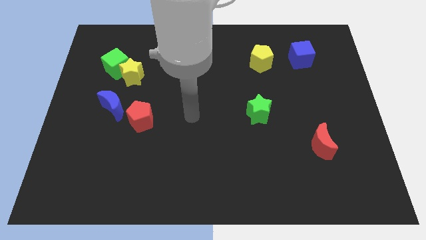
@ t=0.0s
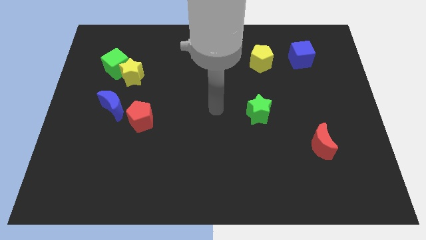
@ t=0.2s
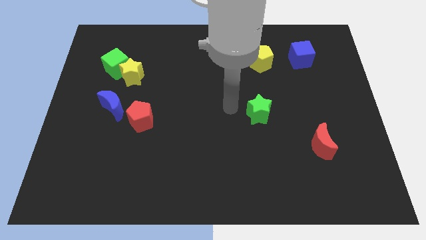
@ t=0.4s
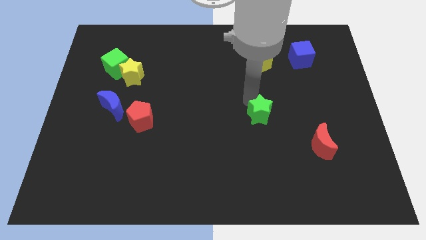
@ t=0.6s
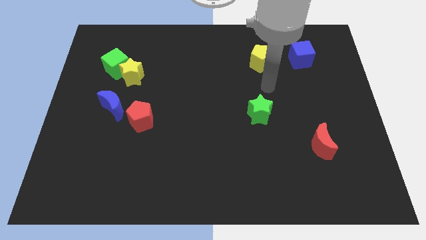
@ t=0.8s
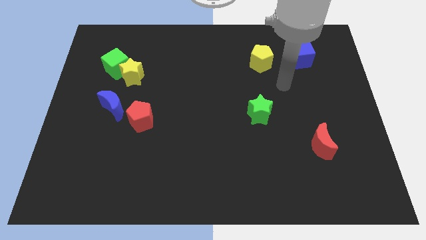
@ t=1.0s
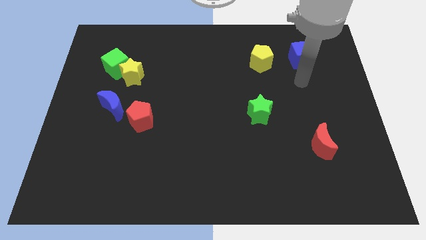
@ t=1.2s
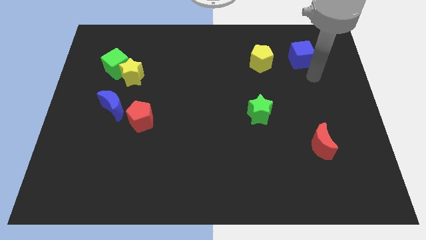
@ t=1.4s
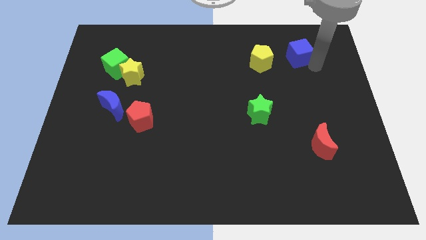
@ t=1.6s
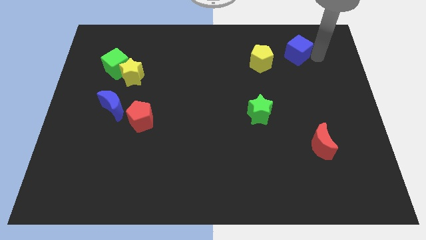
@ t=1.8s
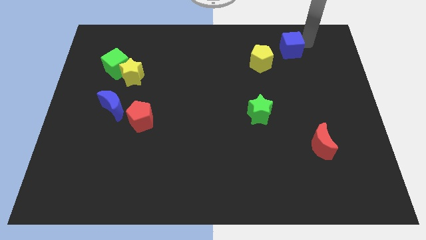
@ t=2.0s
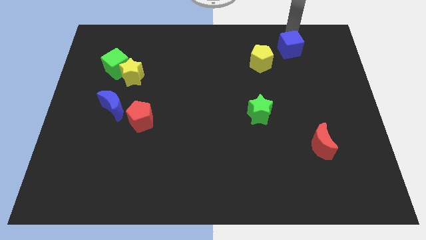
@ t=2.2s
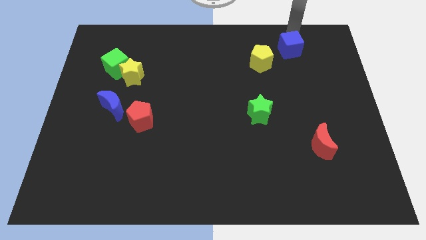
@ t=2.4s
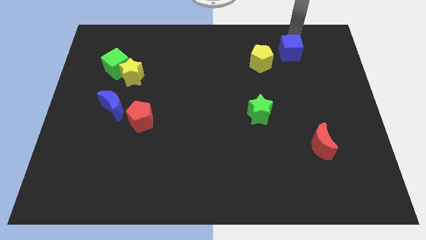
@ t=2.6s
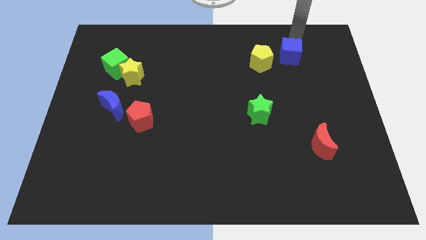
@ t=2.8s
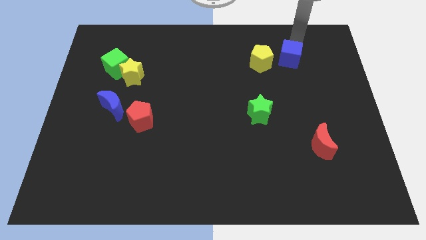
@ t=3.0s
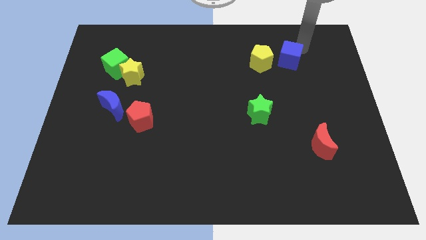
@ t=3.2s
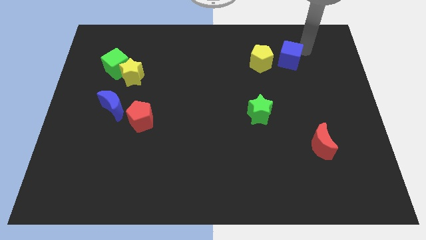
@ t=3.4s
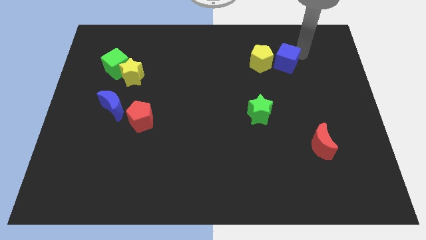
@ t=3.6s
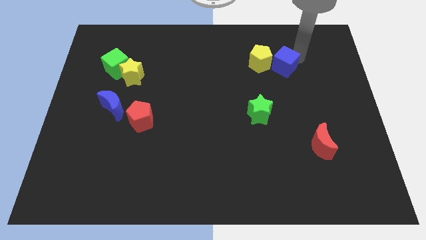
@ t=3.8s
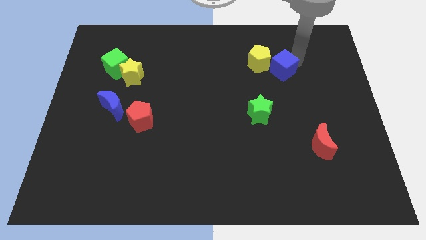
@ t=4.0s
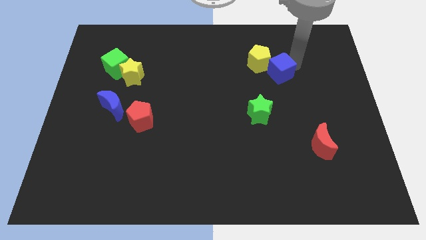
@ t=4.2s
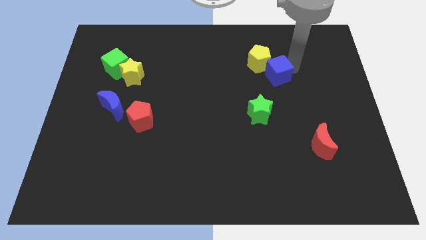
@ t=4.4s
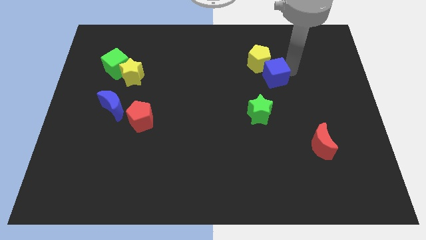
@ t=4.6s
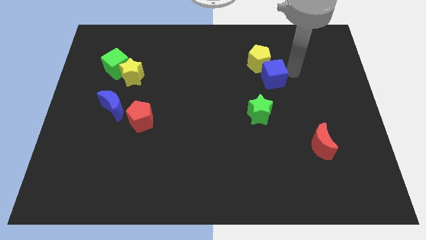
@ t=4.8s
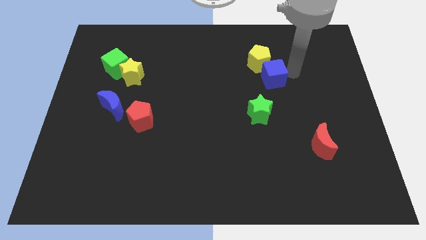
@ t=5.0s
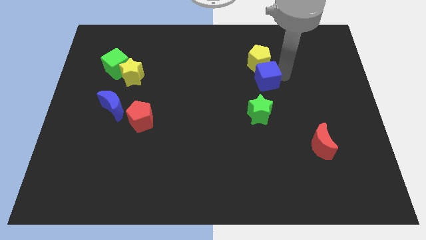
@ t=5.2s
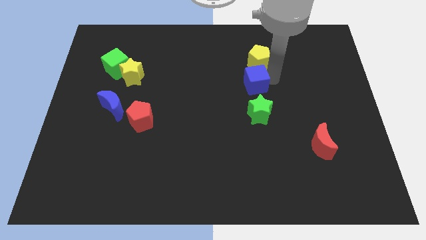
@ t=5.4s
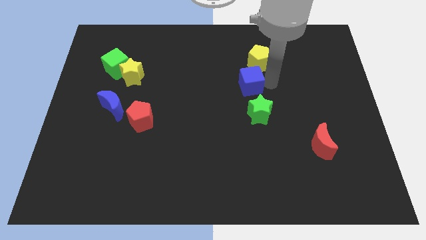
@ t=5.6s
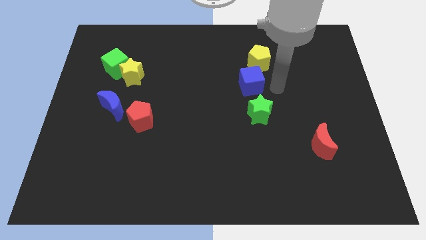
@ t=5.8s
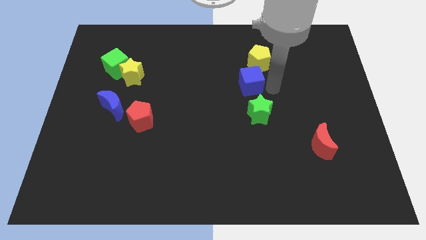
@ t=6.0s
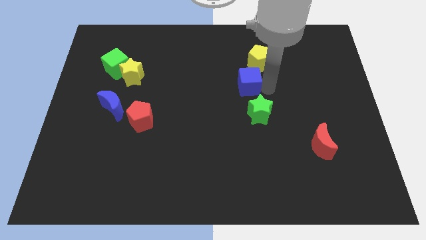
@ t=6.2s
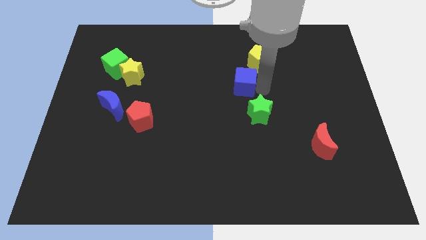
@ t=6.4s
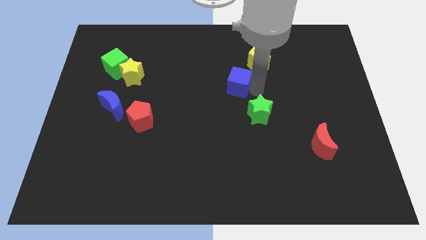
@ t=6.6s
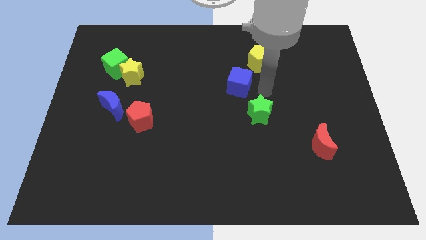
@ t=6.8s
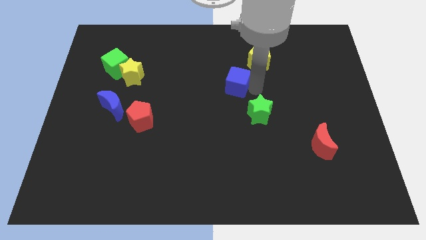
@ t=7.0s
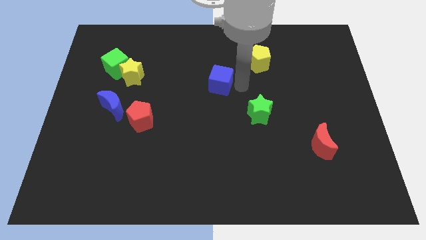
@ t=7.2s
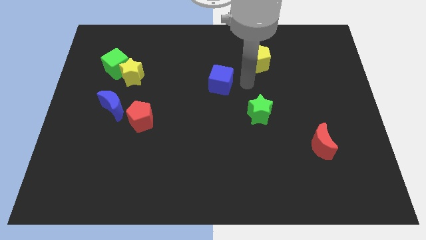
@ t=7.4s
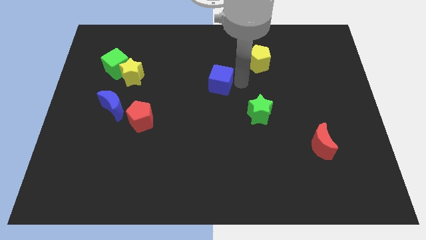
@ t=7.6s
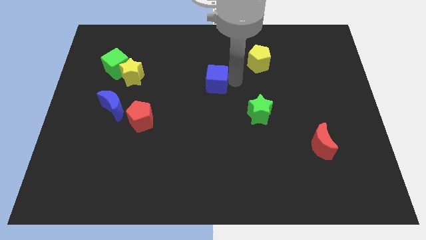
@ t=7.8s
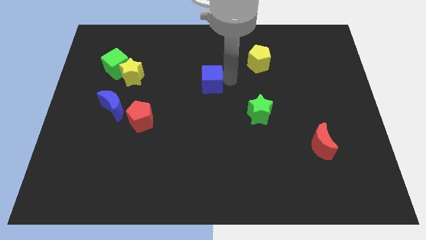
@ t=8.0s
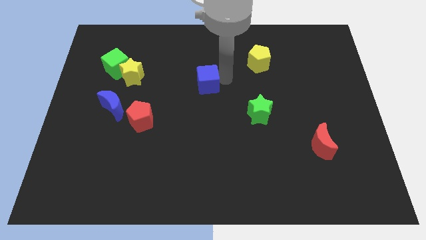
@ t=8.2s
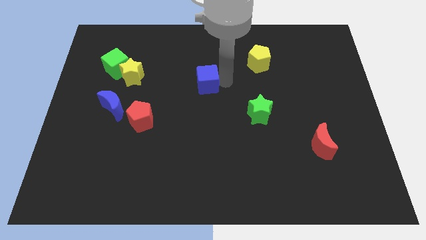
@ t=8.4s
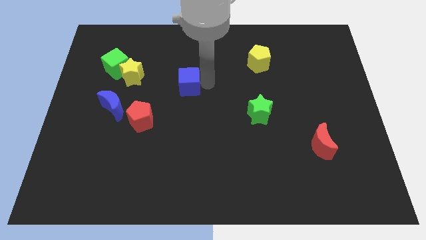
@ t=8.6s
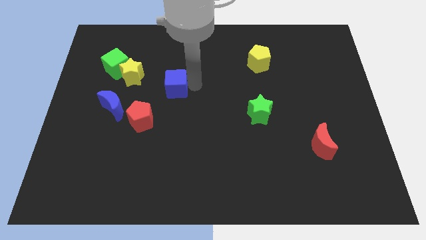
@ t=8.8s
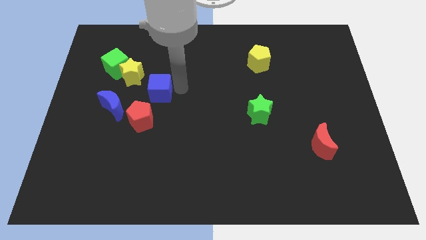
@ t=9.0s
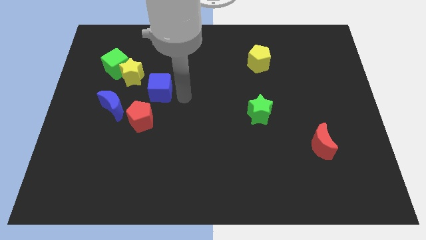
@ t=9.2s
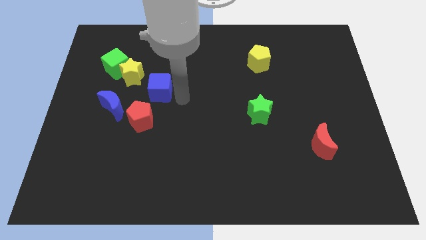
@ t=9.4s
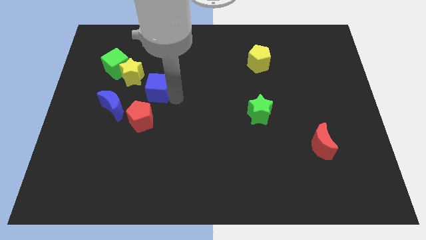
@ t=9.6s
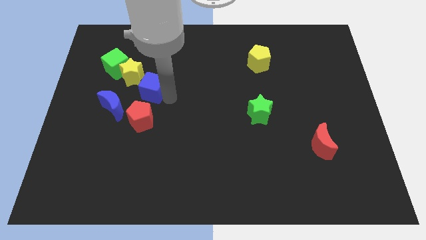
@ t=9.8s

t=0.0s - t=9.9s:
slide the blue cube diagonally down and to the right of the green cube

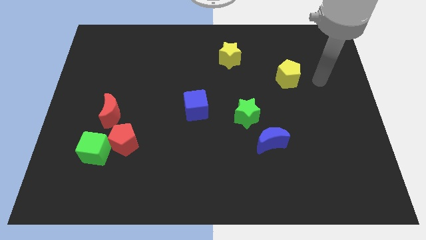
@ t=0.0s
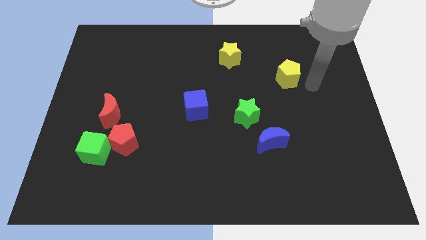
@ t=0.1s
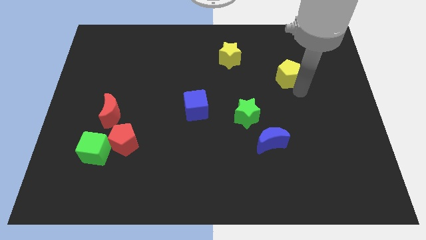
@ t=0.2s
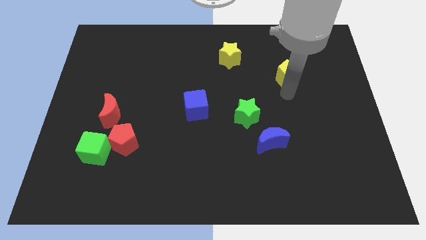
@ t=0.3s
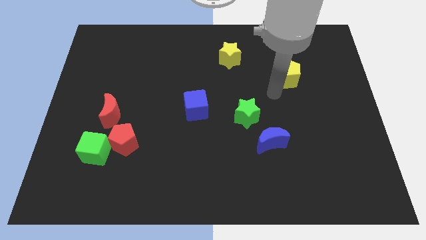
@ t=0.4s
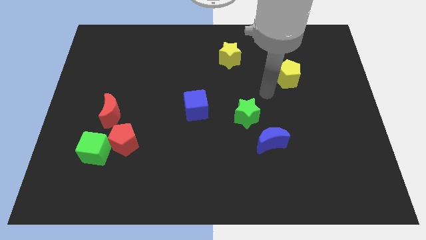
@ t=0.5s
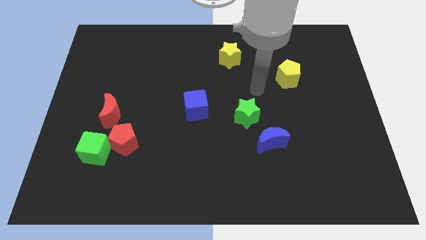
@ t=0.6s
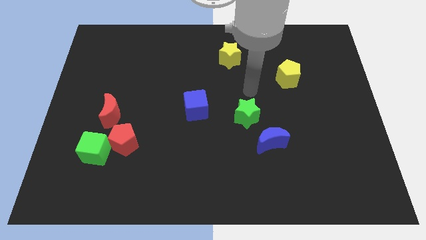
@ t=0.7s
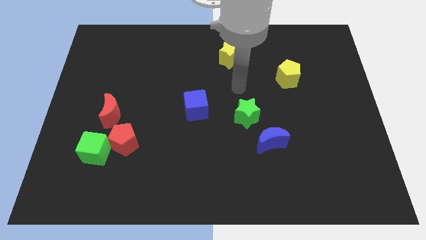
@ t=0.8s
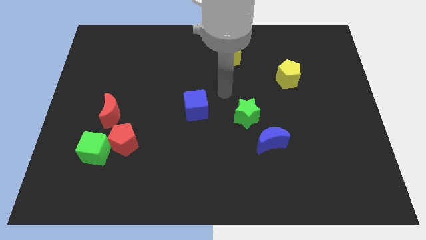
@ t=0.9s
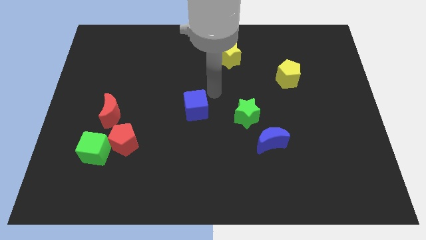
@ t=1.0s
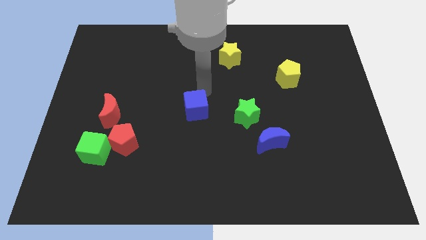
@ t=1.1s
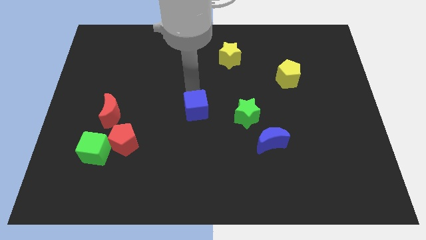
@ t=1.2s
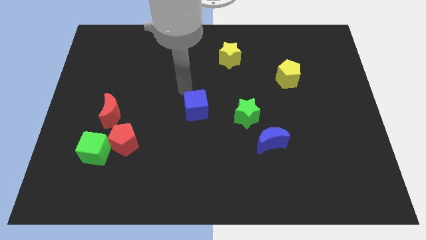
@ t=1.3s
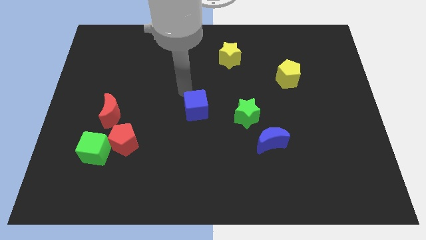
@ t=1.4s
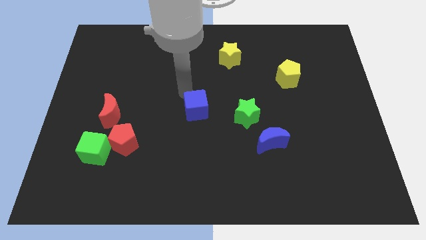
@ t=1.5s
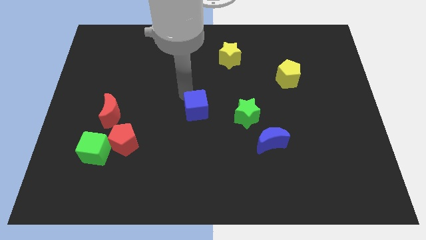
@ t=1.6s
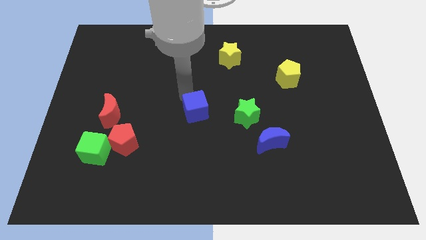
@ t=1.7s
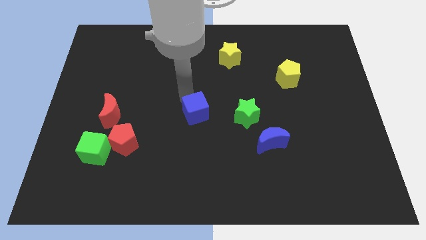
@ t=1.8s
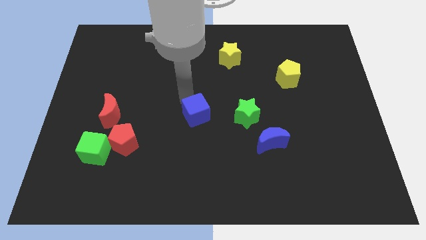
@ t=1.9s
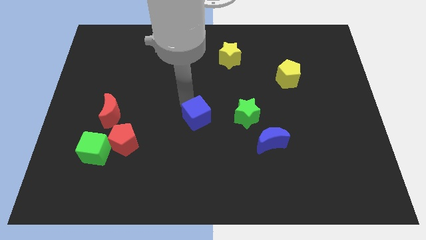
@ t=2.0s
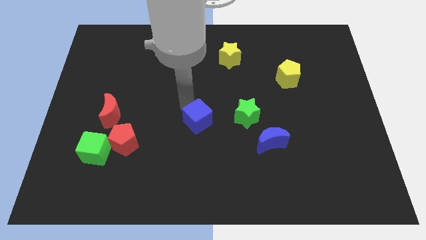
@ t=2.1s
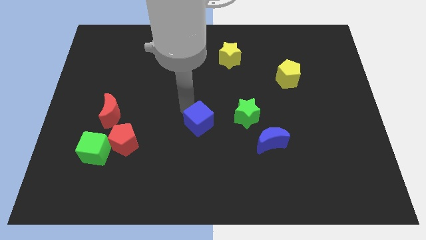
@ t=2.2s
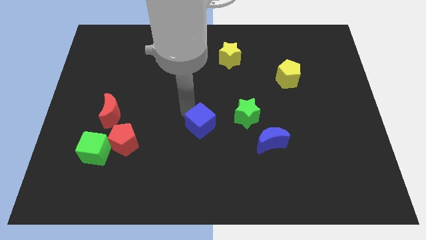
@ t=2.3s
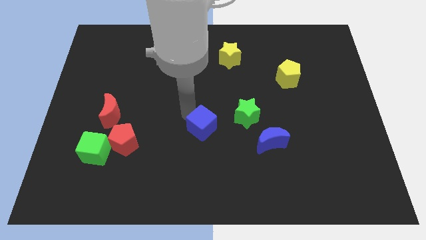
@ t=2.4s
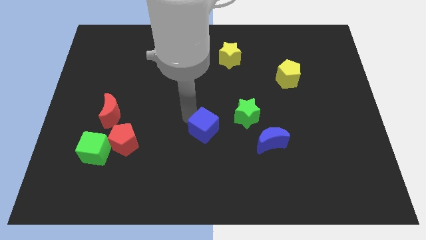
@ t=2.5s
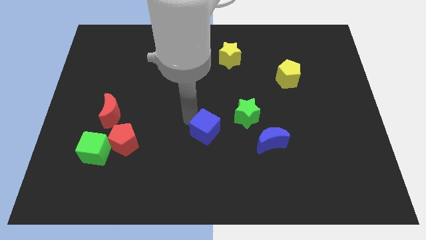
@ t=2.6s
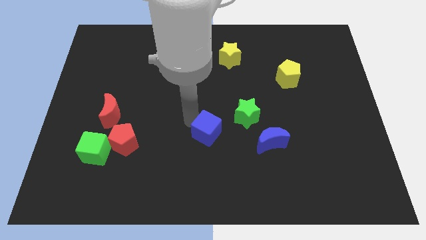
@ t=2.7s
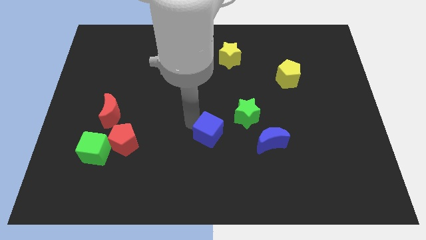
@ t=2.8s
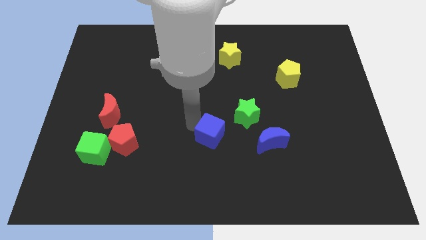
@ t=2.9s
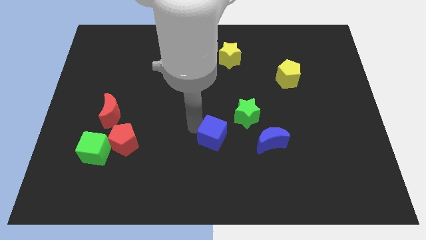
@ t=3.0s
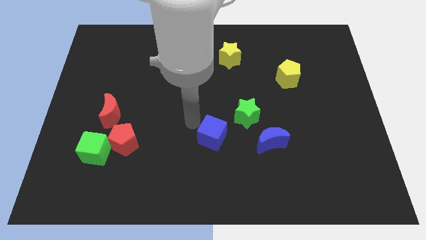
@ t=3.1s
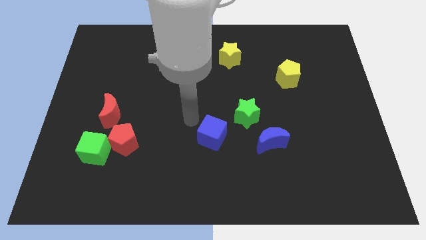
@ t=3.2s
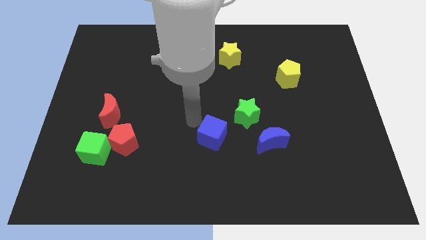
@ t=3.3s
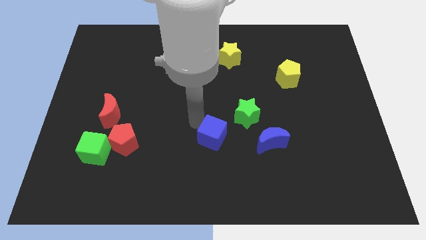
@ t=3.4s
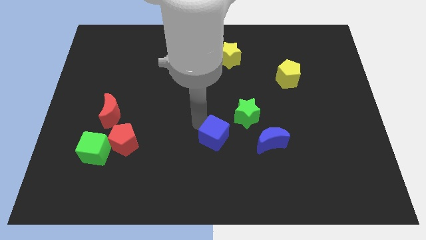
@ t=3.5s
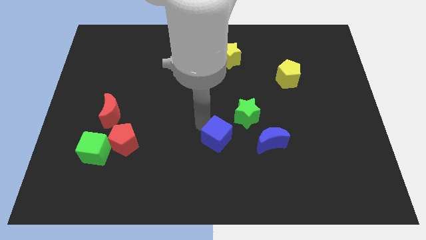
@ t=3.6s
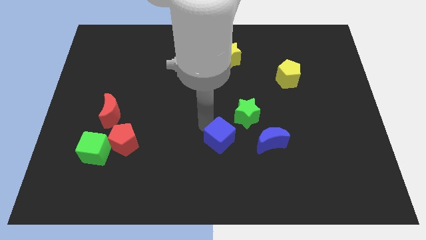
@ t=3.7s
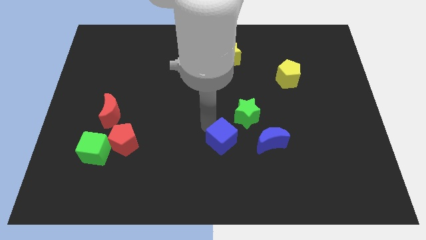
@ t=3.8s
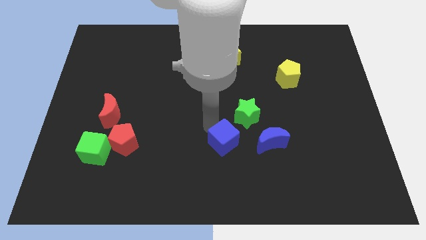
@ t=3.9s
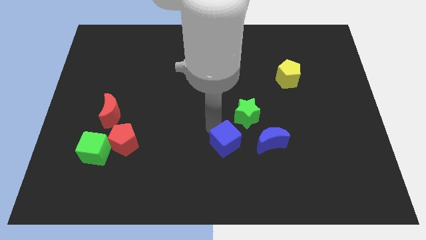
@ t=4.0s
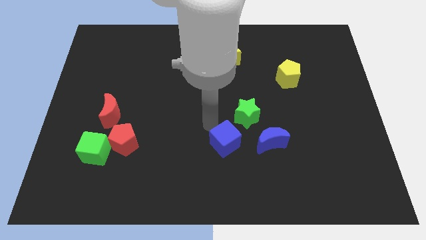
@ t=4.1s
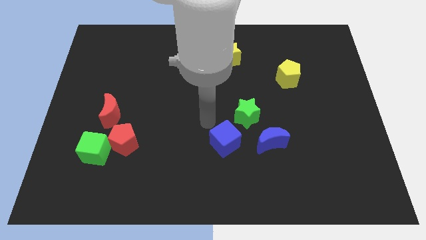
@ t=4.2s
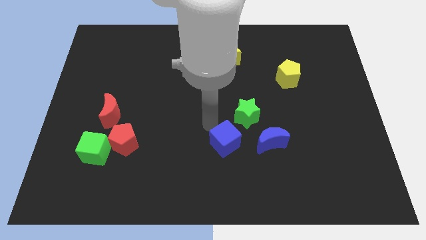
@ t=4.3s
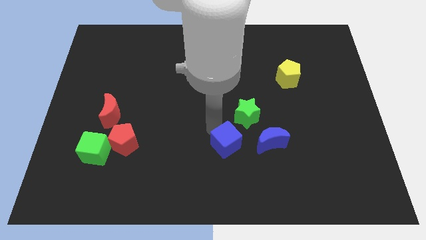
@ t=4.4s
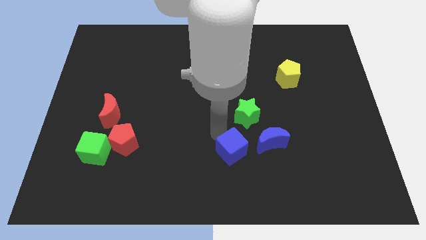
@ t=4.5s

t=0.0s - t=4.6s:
push the blue cube to the bottom left of the blue moon
